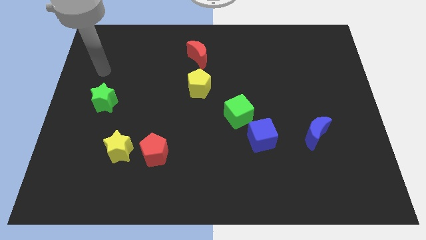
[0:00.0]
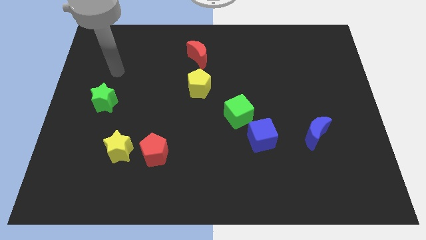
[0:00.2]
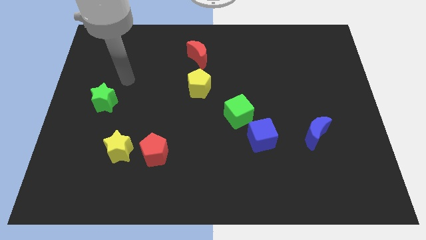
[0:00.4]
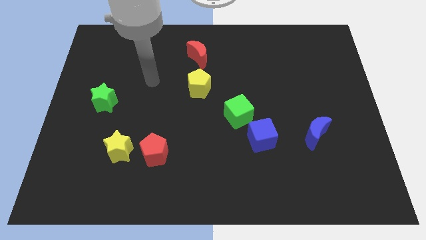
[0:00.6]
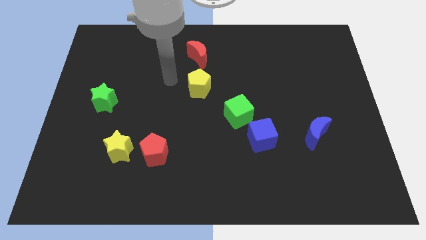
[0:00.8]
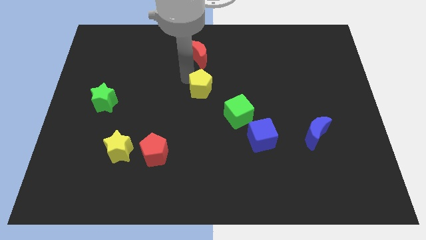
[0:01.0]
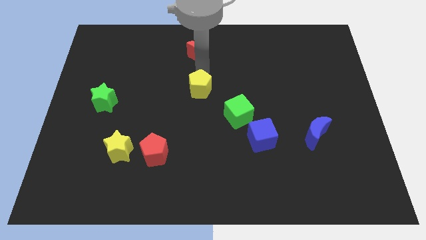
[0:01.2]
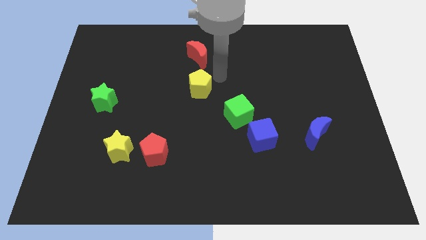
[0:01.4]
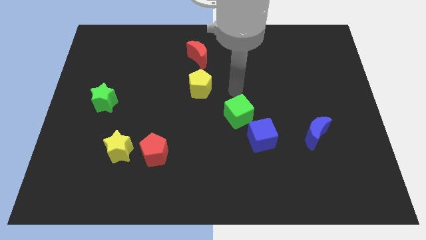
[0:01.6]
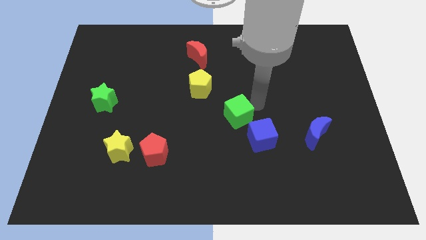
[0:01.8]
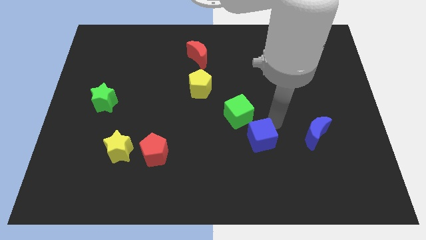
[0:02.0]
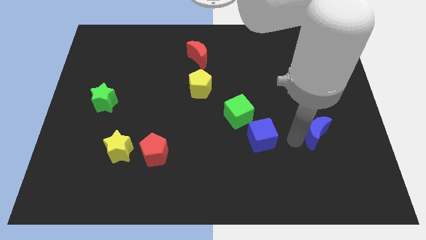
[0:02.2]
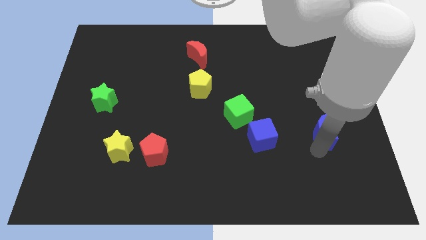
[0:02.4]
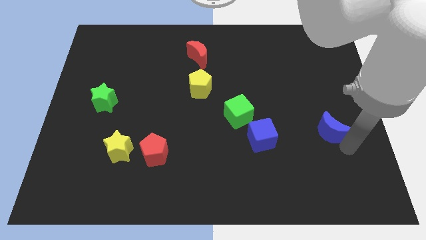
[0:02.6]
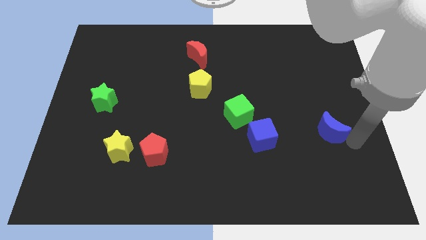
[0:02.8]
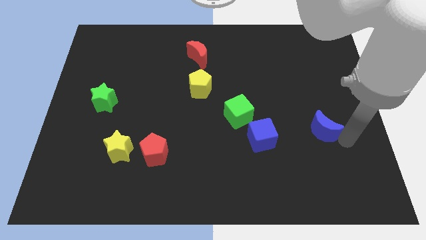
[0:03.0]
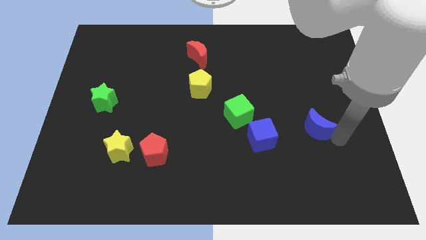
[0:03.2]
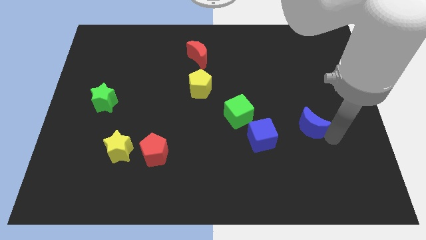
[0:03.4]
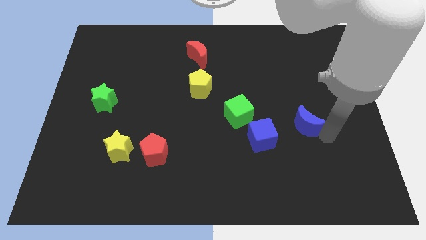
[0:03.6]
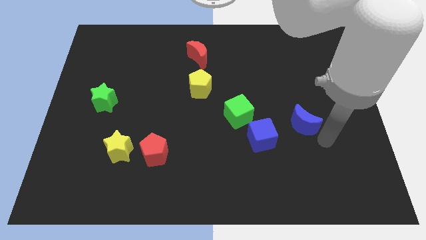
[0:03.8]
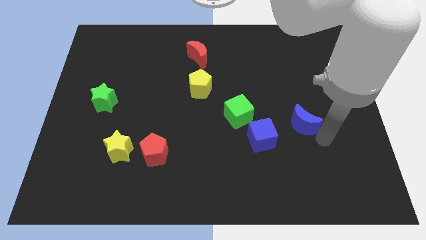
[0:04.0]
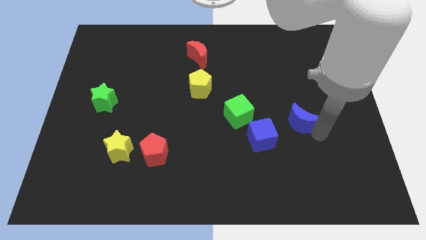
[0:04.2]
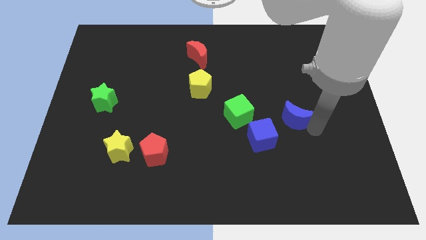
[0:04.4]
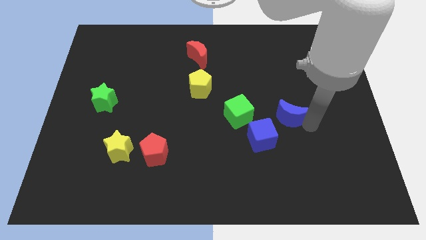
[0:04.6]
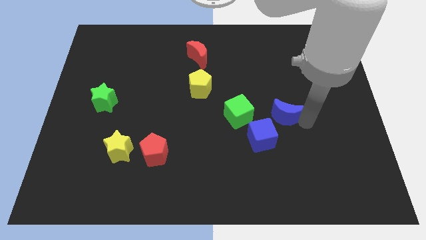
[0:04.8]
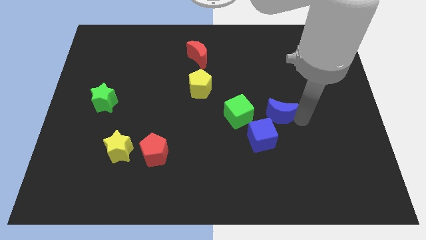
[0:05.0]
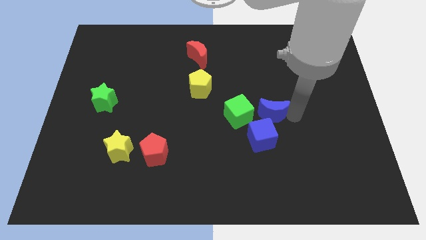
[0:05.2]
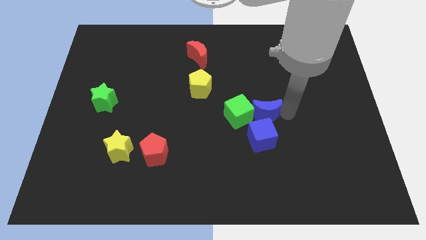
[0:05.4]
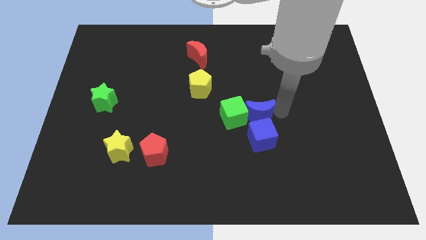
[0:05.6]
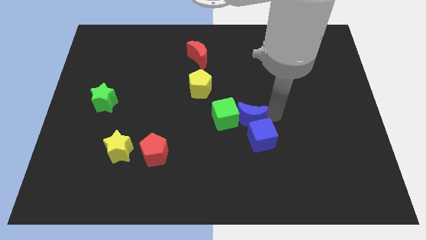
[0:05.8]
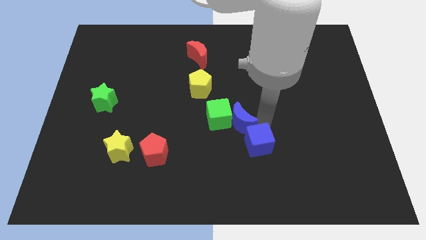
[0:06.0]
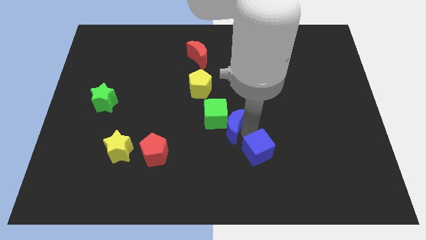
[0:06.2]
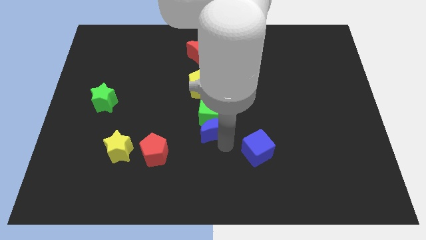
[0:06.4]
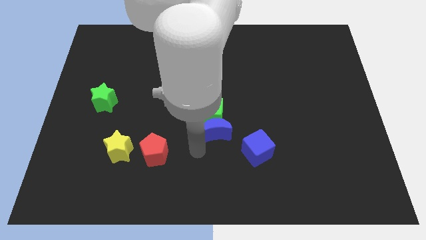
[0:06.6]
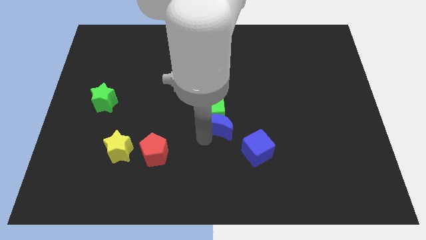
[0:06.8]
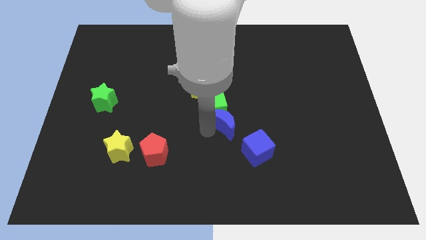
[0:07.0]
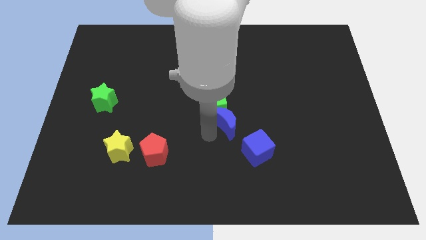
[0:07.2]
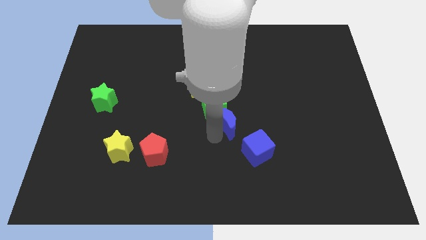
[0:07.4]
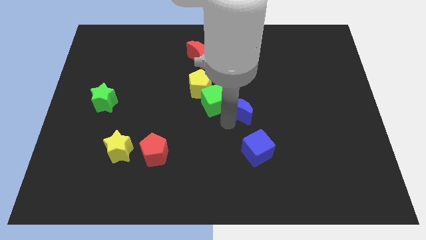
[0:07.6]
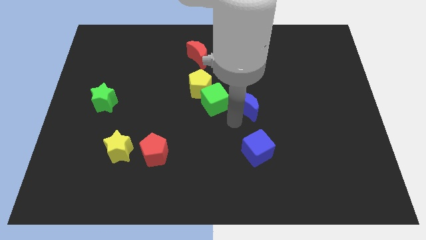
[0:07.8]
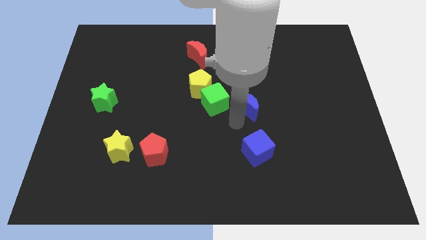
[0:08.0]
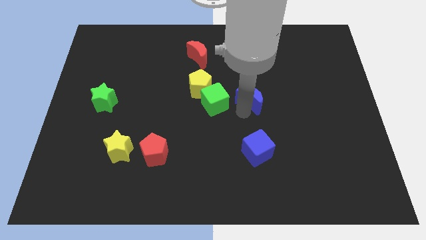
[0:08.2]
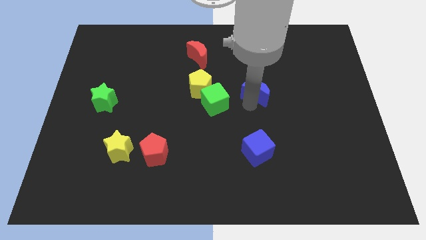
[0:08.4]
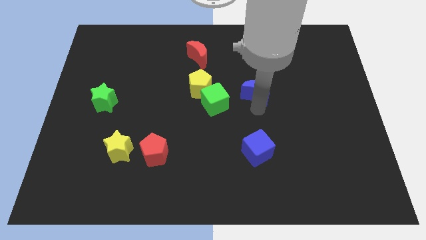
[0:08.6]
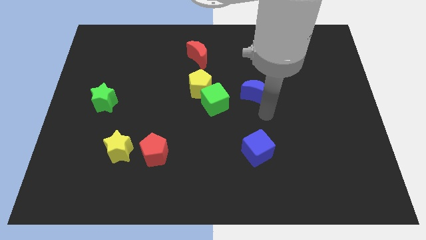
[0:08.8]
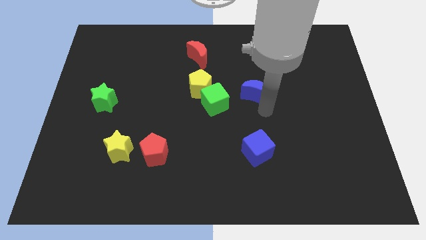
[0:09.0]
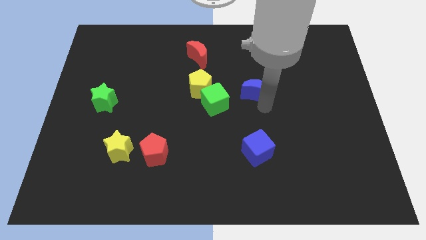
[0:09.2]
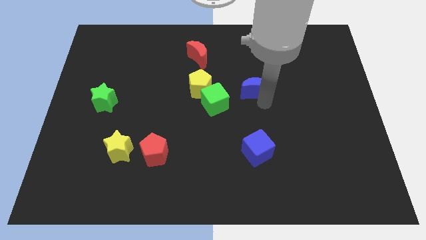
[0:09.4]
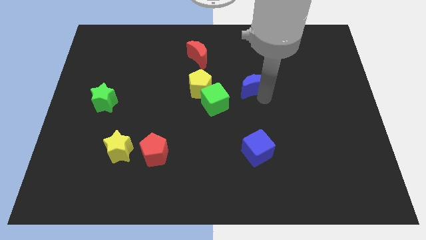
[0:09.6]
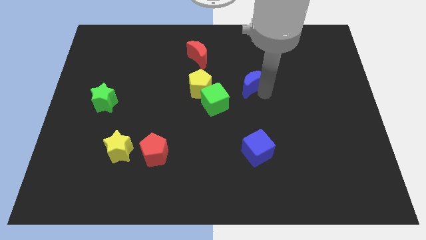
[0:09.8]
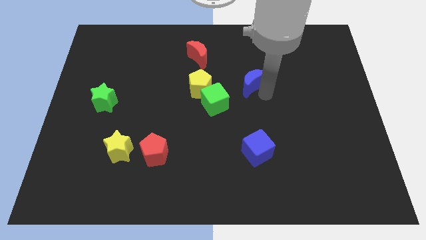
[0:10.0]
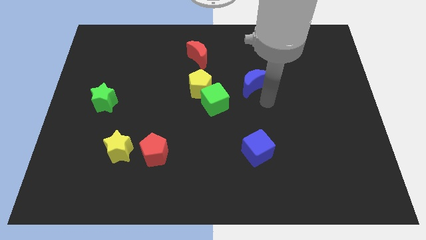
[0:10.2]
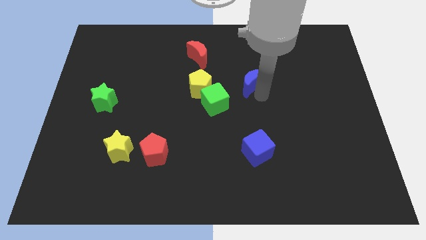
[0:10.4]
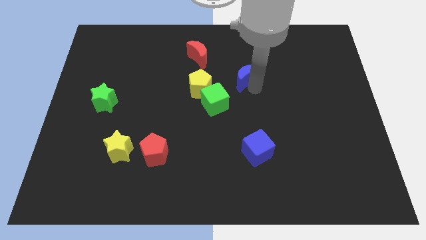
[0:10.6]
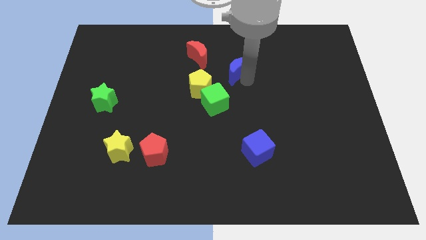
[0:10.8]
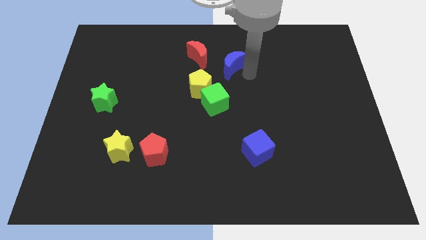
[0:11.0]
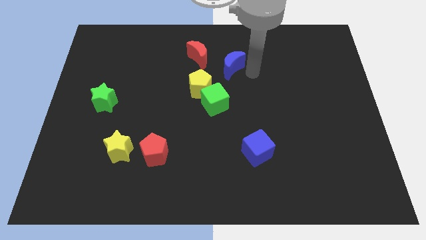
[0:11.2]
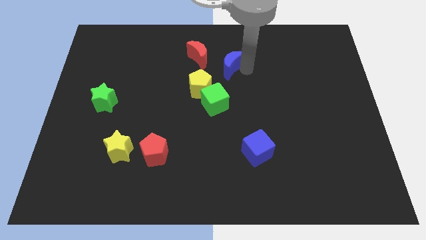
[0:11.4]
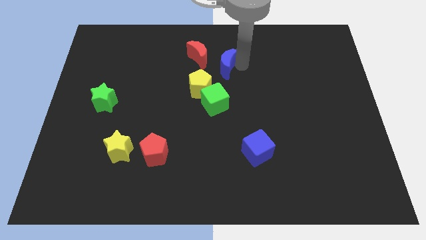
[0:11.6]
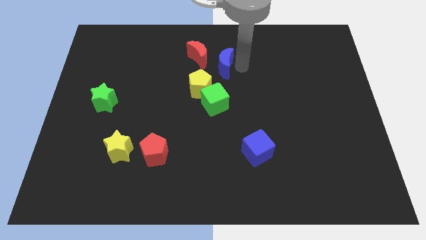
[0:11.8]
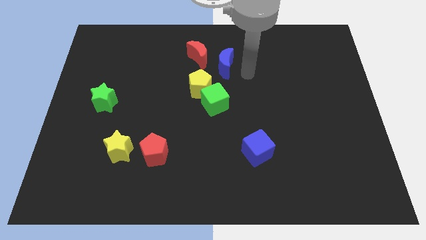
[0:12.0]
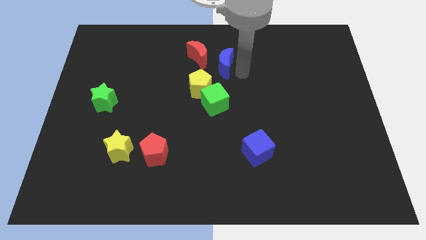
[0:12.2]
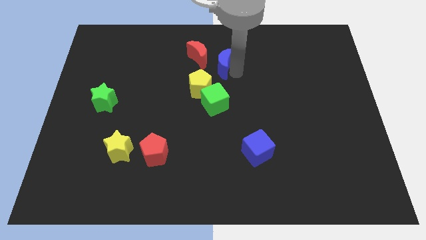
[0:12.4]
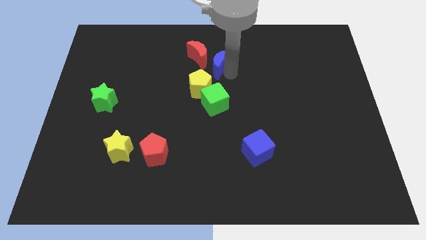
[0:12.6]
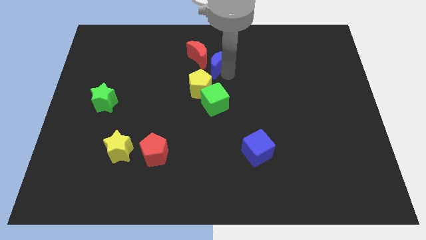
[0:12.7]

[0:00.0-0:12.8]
put the blue moon close to the red moon
